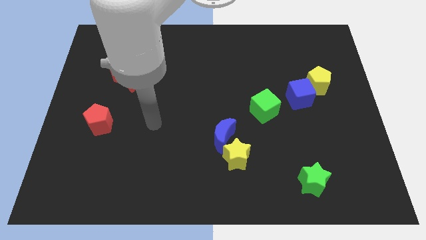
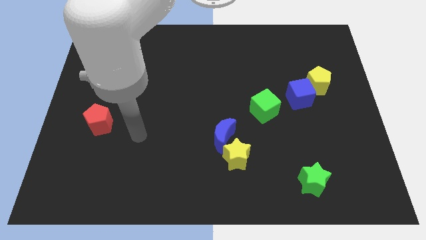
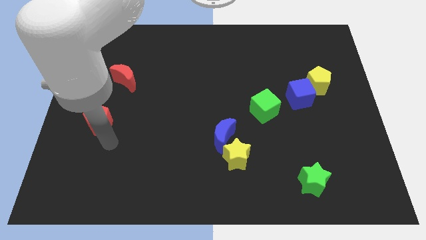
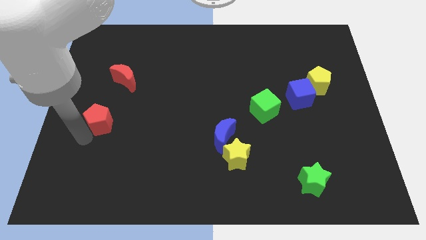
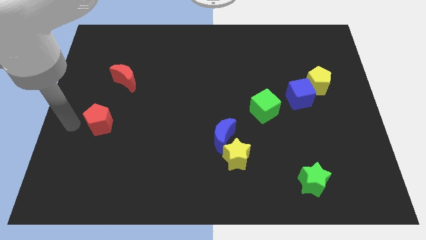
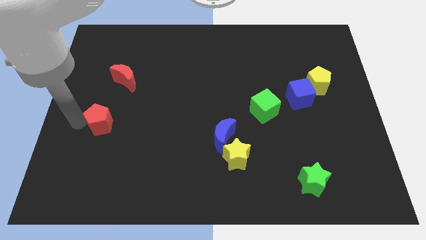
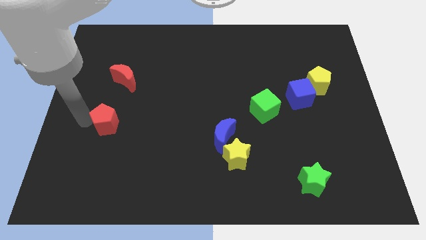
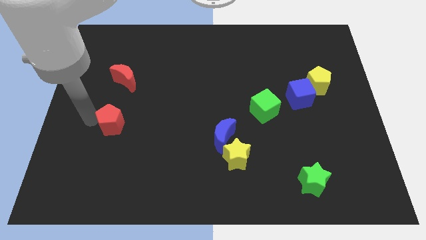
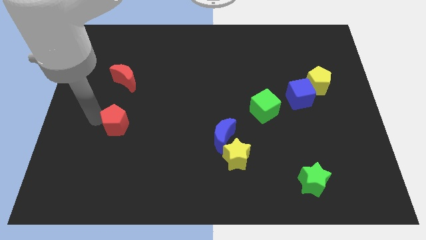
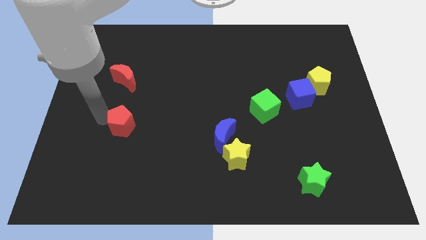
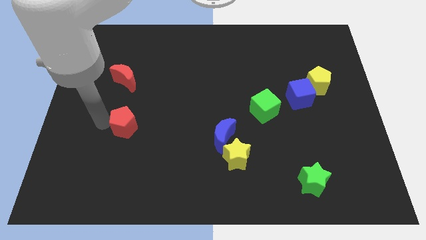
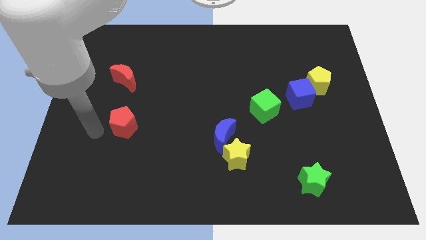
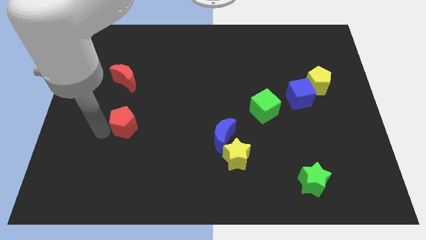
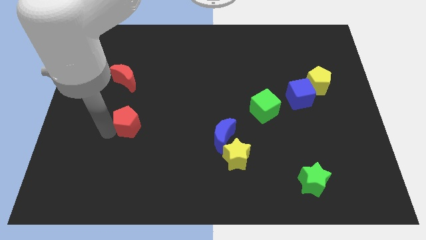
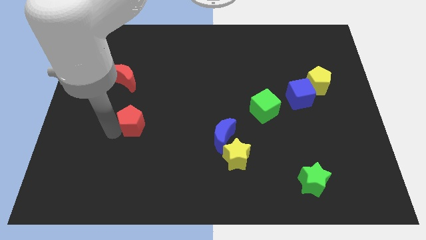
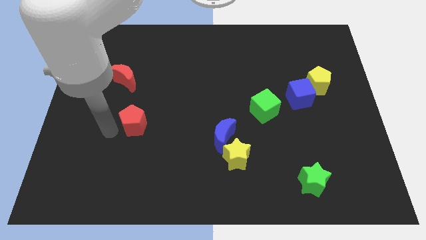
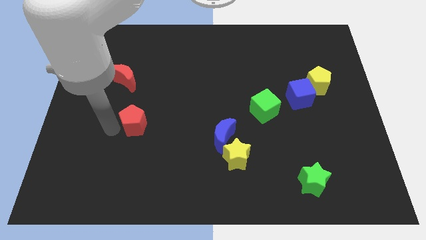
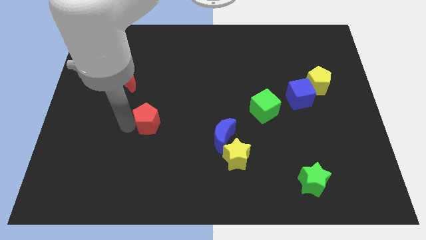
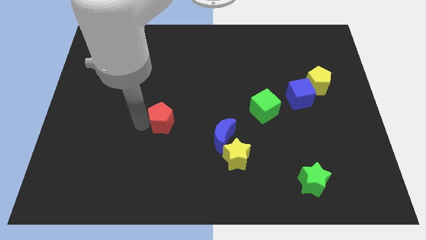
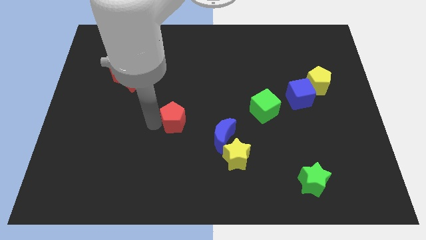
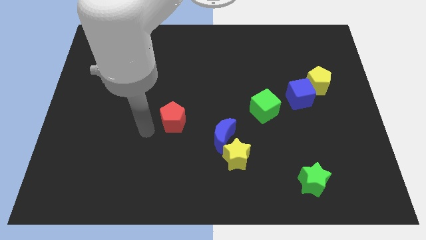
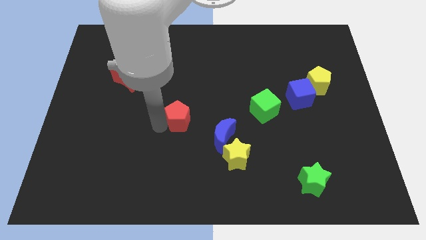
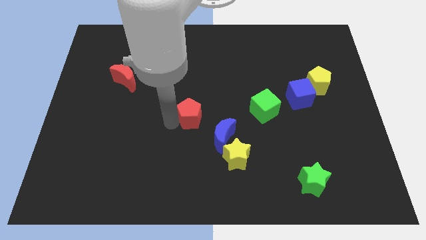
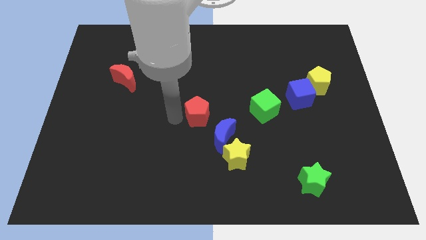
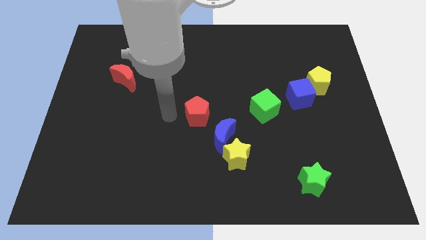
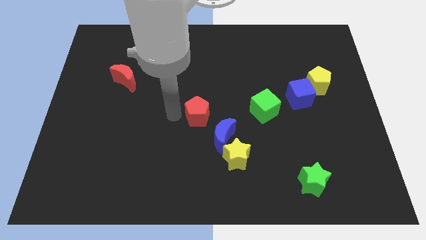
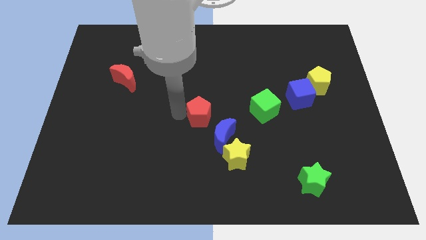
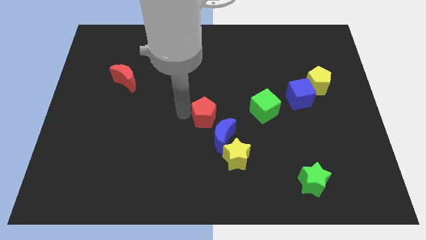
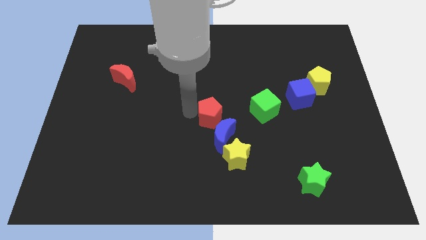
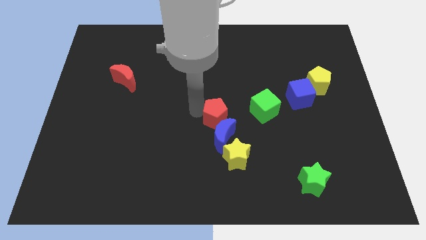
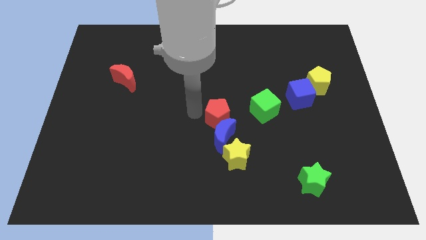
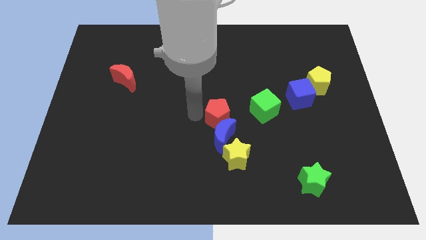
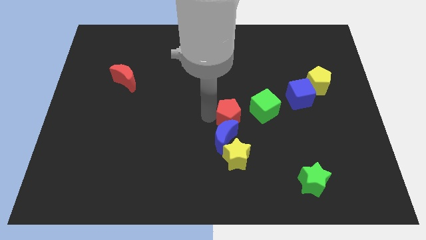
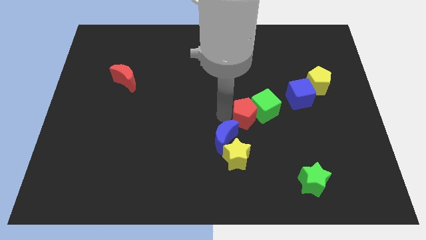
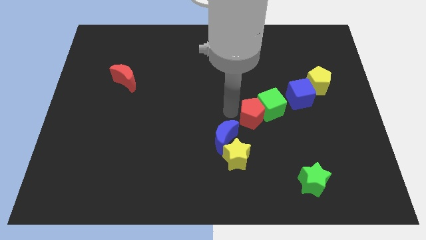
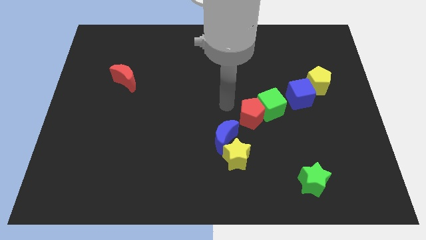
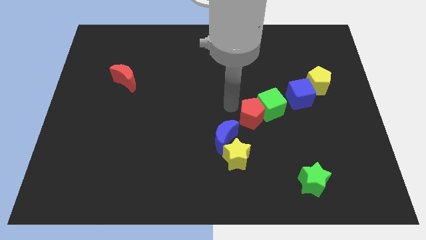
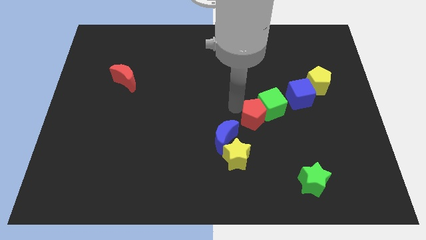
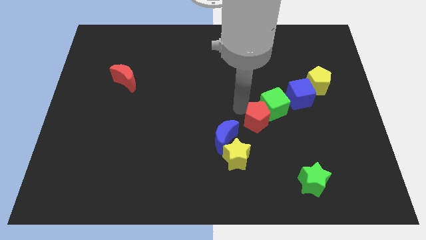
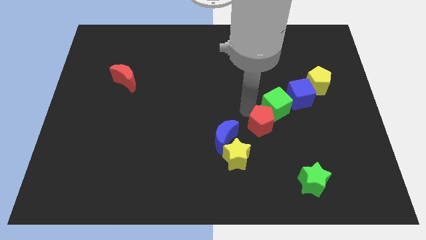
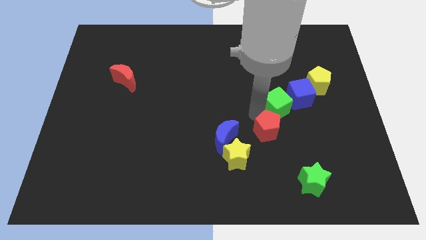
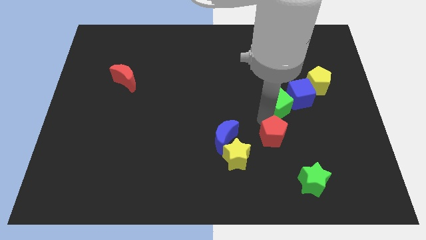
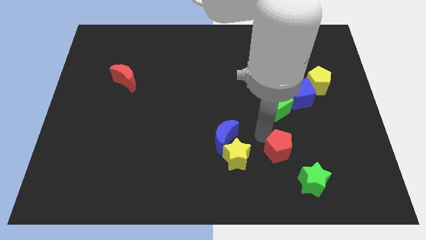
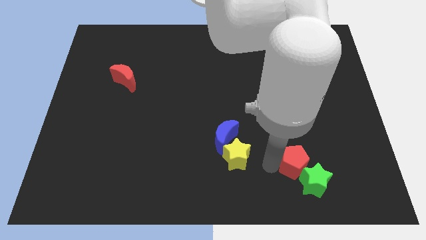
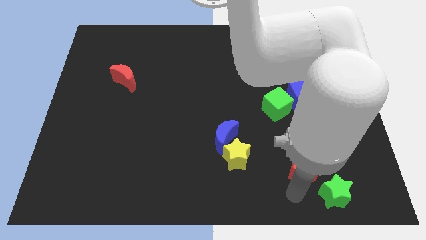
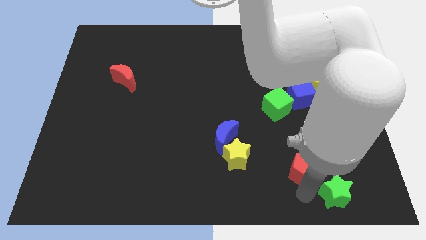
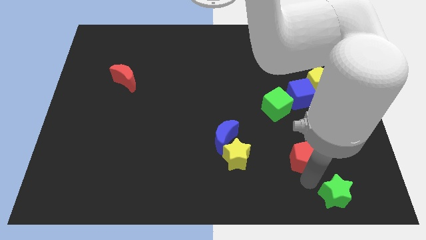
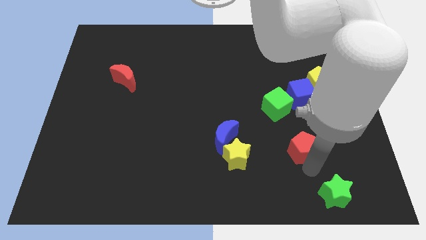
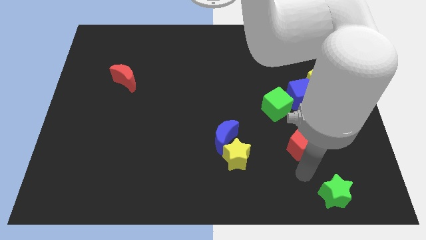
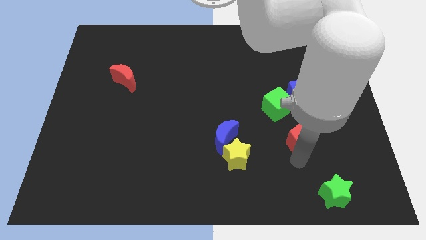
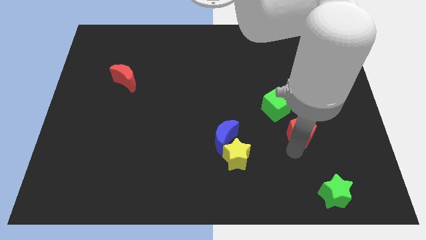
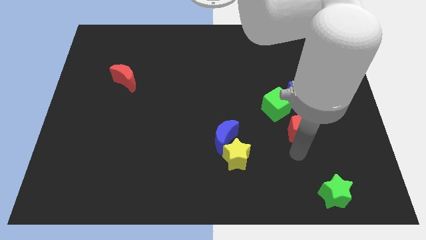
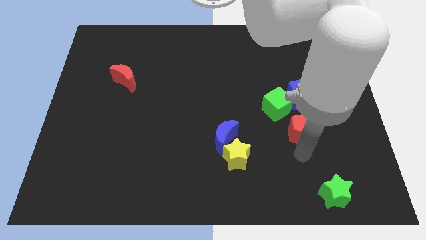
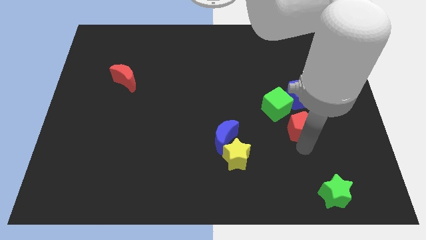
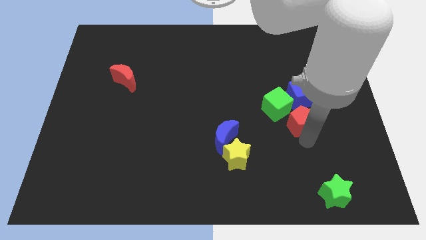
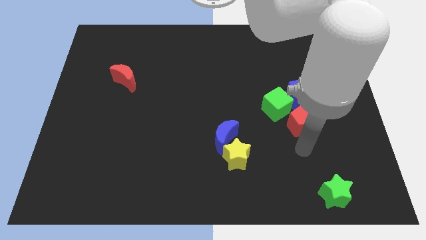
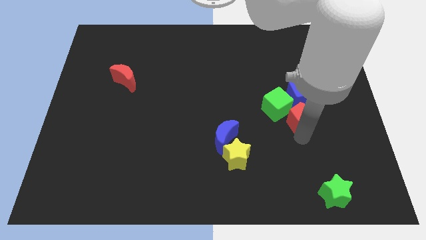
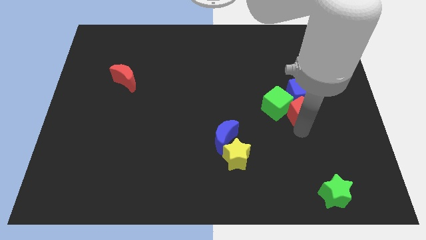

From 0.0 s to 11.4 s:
put the red pentagon diagonally down and to the left of the yellow pentagon

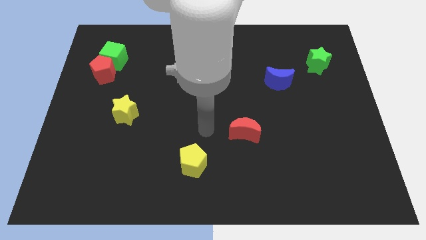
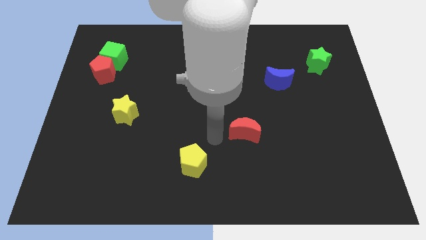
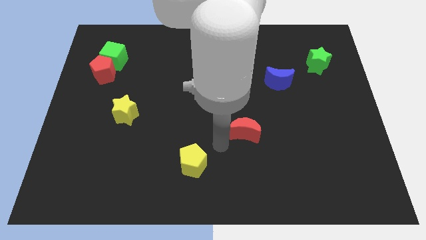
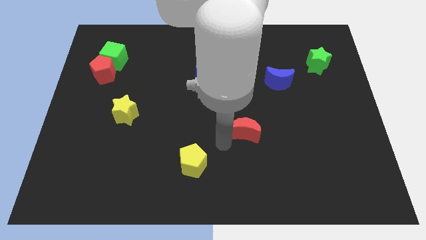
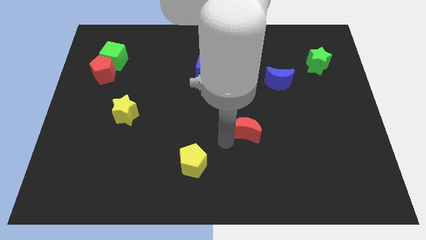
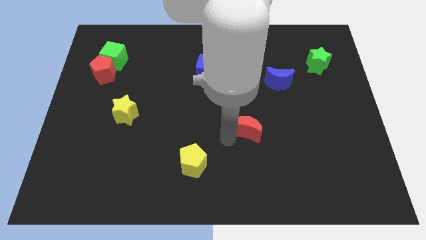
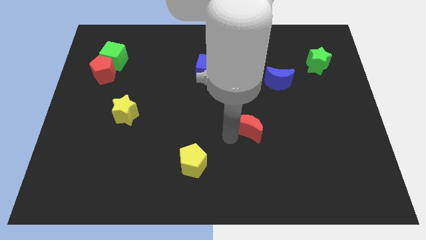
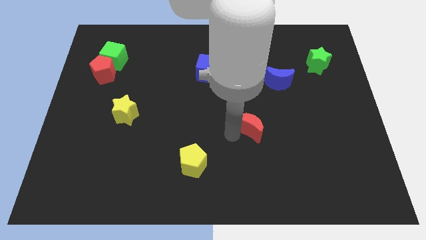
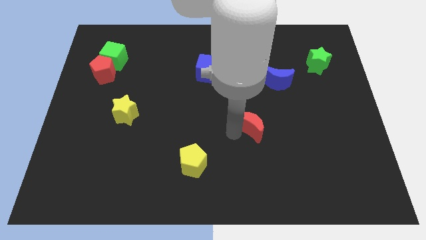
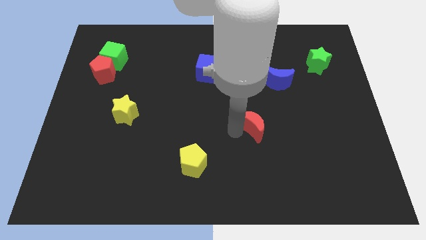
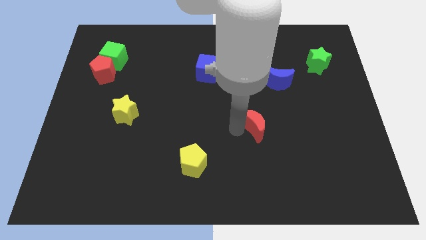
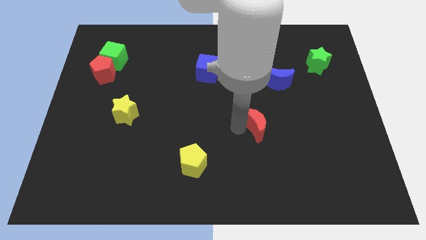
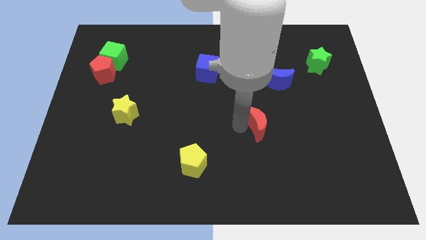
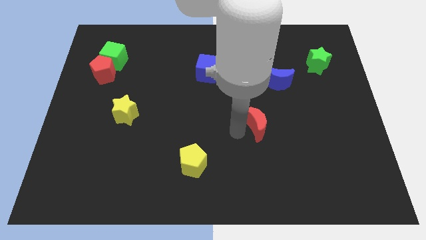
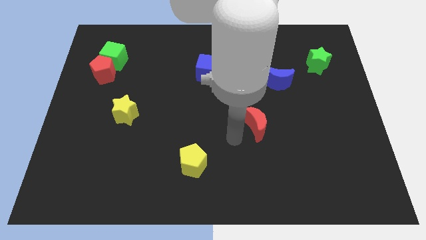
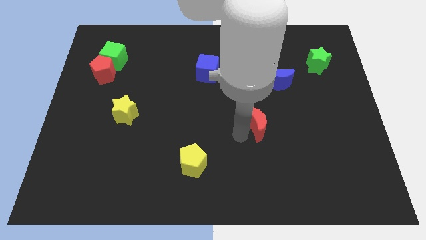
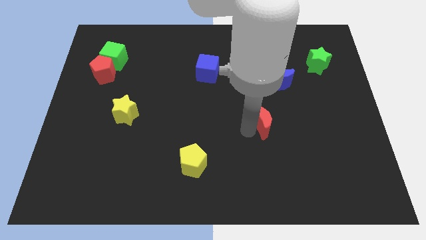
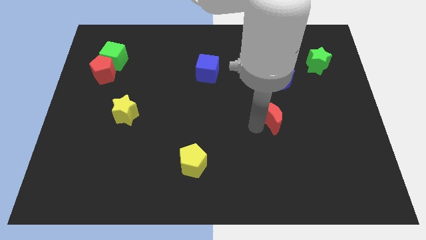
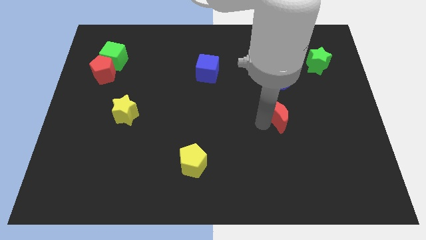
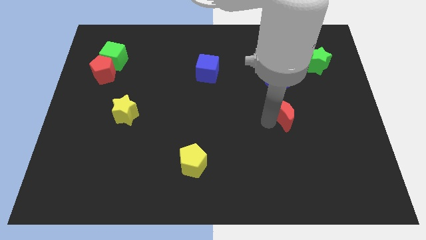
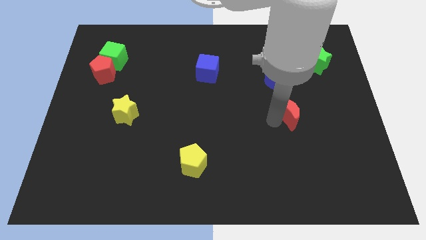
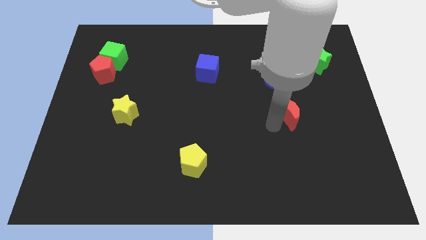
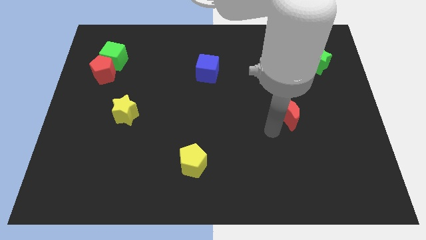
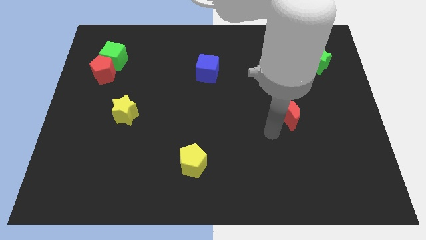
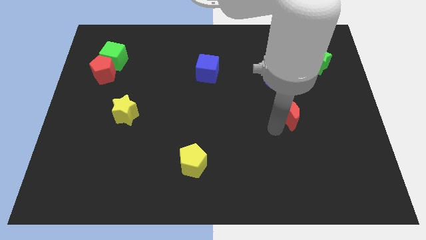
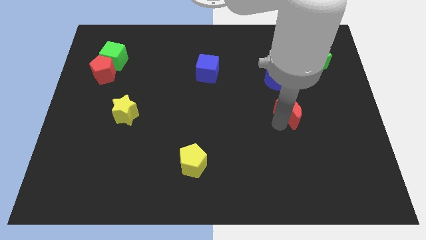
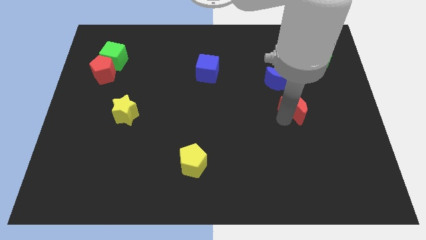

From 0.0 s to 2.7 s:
slide the red moon to the bottom right side of the blue moon
